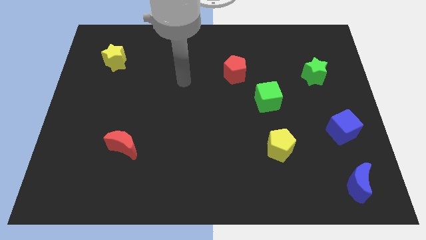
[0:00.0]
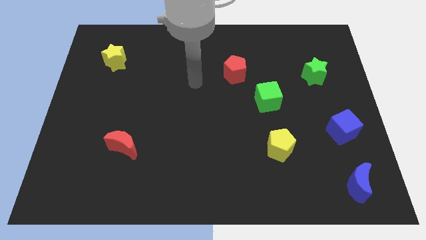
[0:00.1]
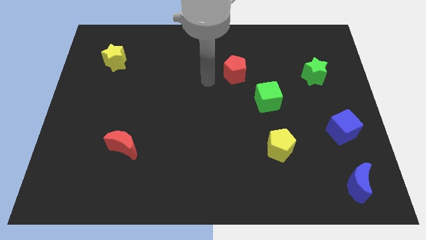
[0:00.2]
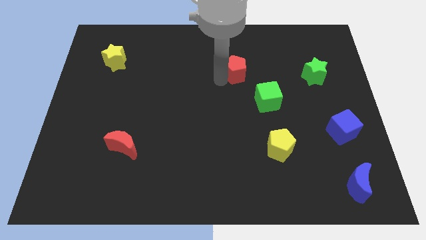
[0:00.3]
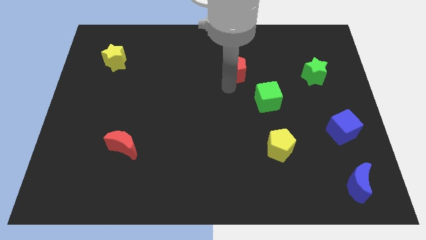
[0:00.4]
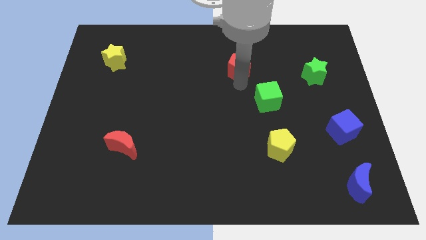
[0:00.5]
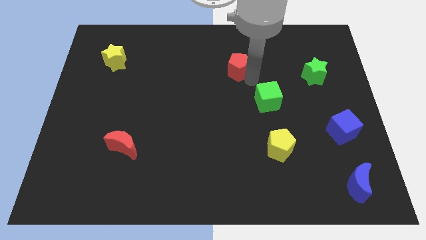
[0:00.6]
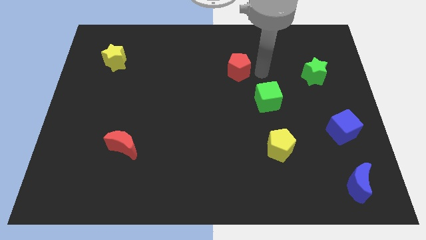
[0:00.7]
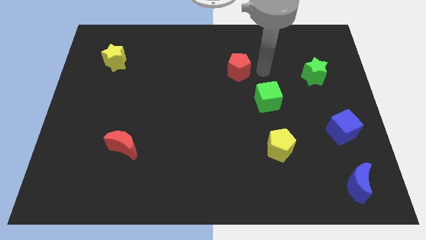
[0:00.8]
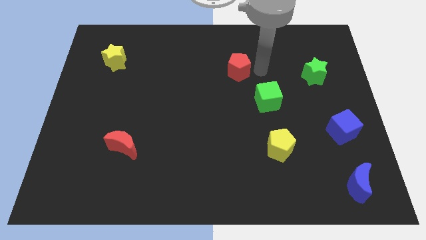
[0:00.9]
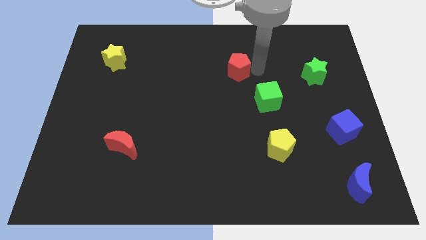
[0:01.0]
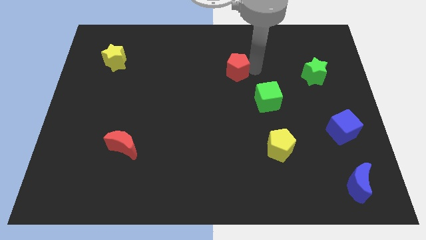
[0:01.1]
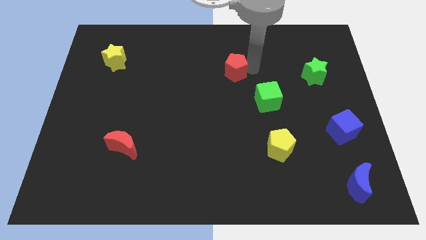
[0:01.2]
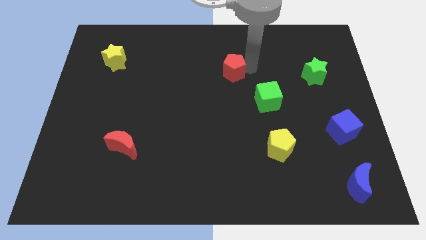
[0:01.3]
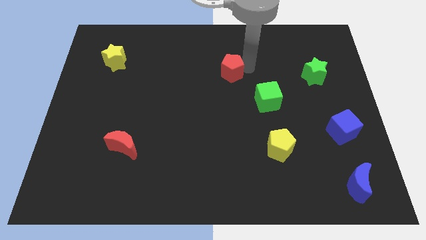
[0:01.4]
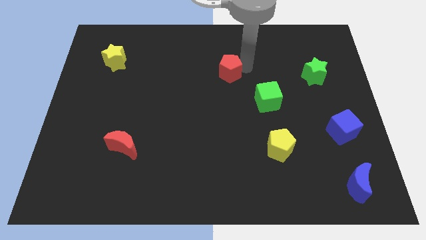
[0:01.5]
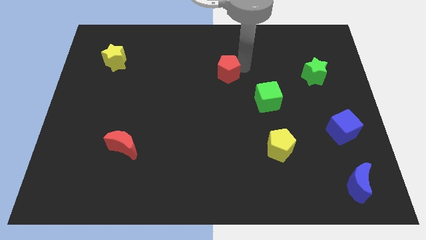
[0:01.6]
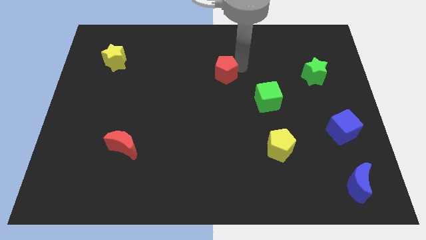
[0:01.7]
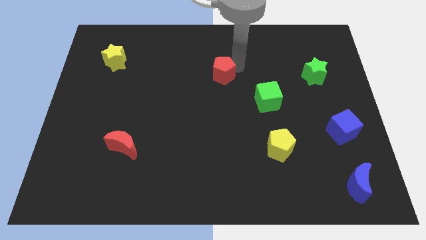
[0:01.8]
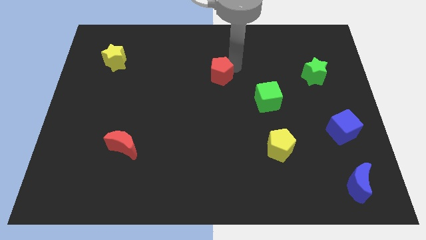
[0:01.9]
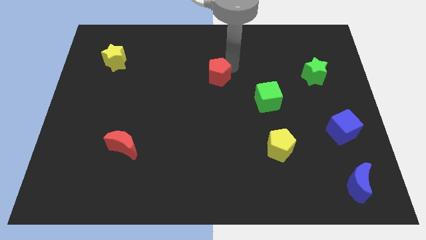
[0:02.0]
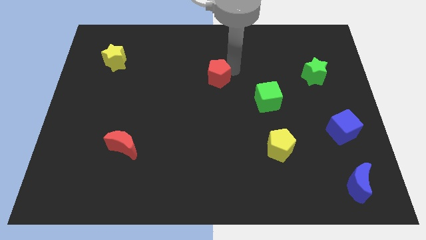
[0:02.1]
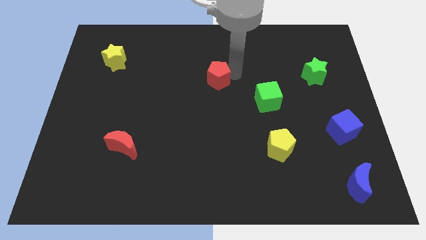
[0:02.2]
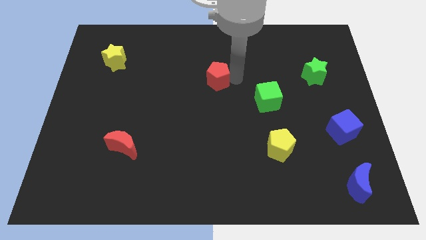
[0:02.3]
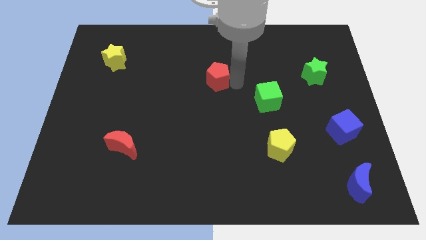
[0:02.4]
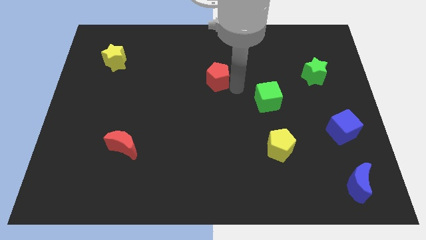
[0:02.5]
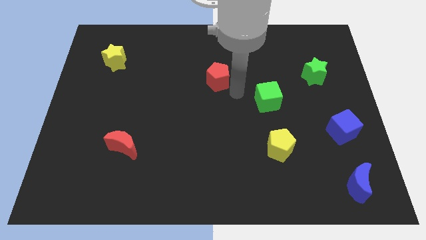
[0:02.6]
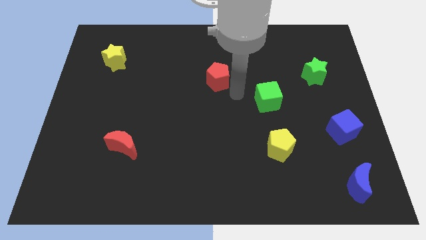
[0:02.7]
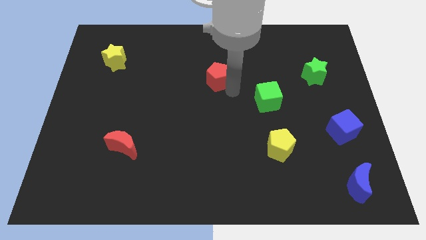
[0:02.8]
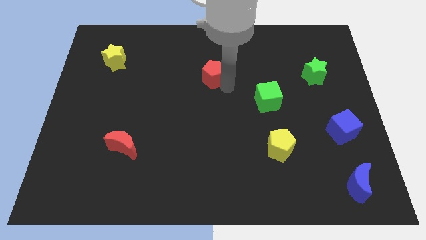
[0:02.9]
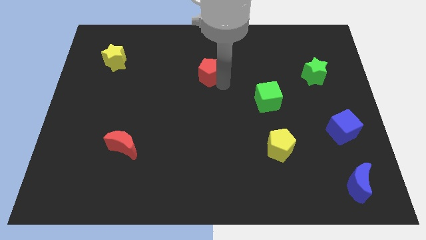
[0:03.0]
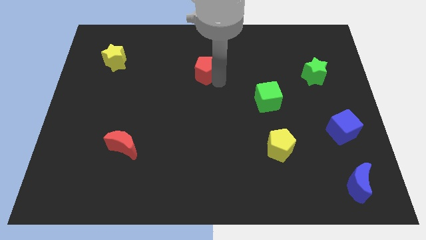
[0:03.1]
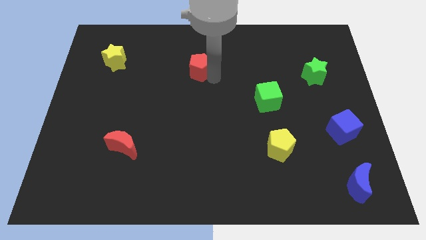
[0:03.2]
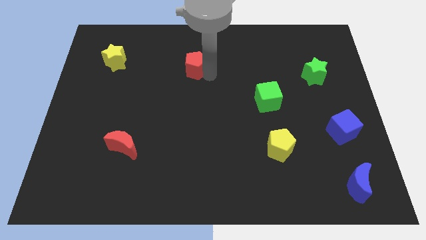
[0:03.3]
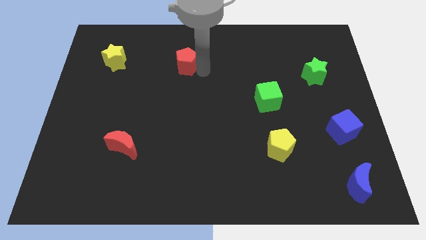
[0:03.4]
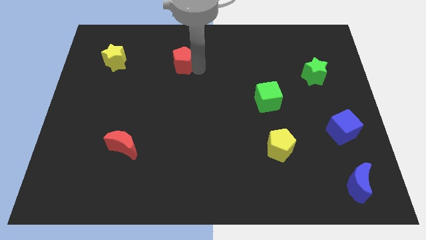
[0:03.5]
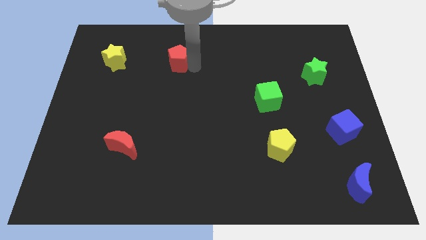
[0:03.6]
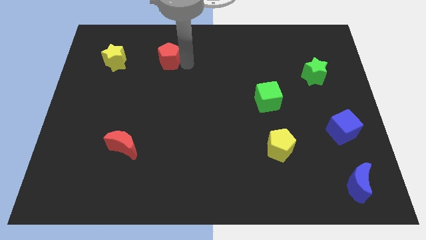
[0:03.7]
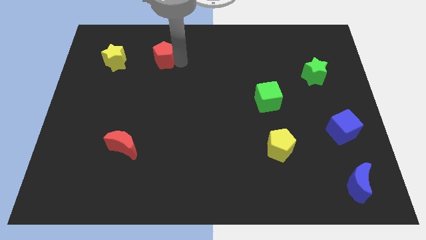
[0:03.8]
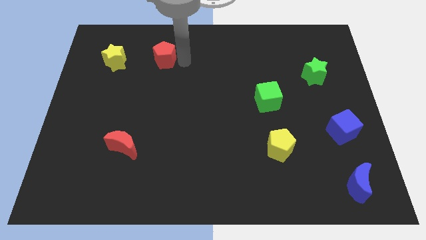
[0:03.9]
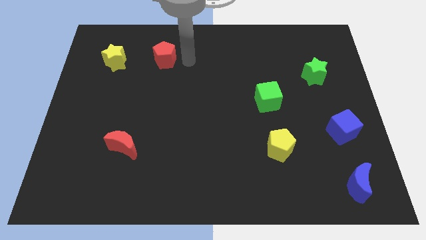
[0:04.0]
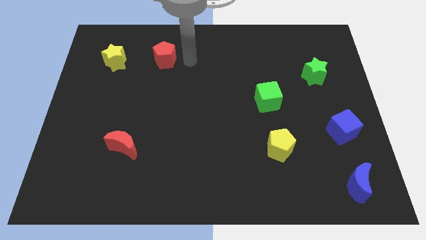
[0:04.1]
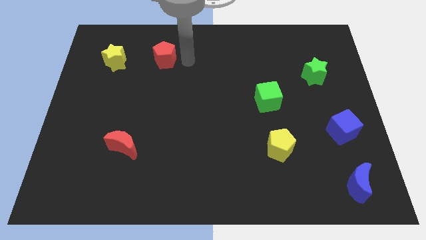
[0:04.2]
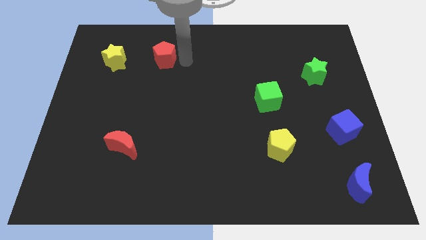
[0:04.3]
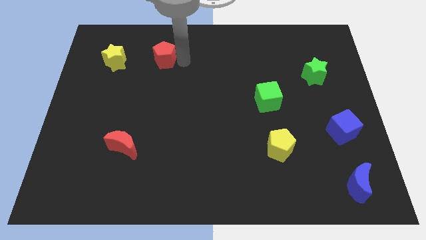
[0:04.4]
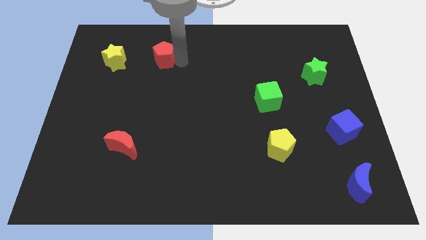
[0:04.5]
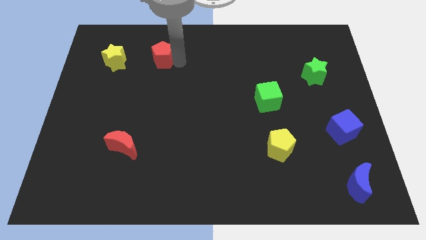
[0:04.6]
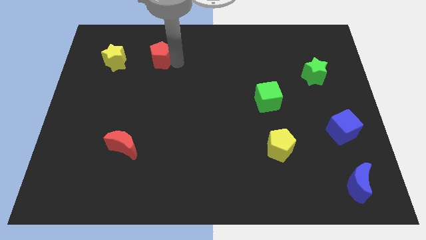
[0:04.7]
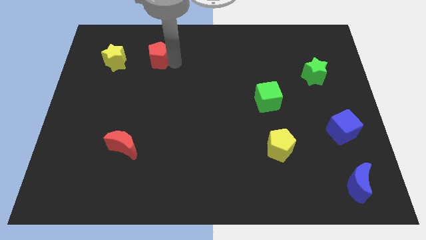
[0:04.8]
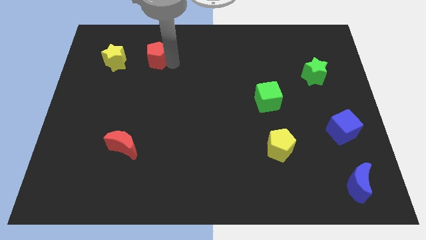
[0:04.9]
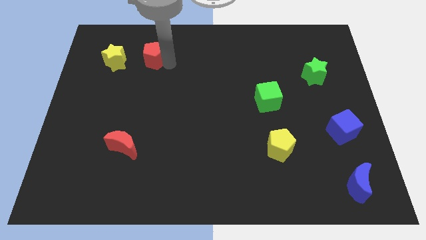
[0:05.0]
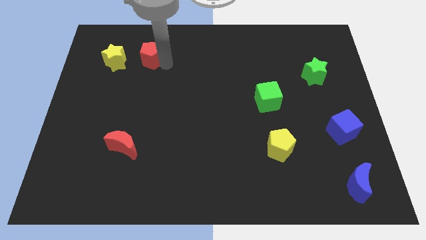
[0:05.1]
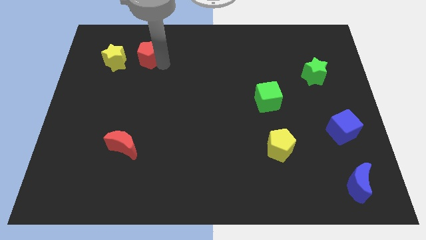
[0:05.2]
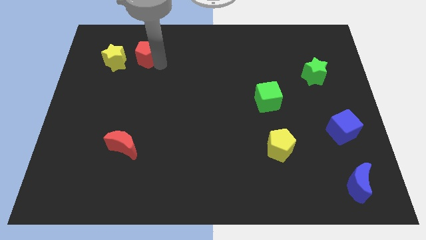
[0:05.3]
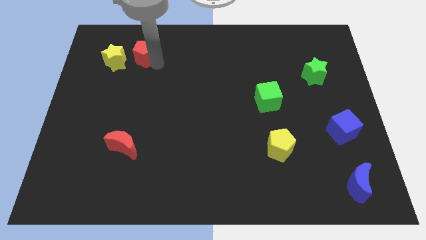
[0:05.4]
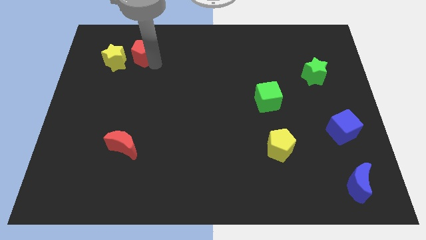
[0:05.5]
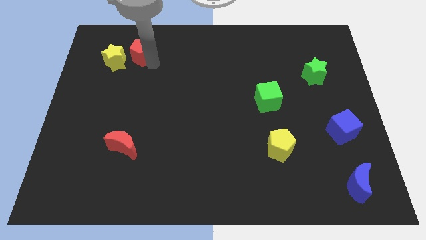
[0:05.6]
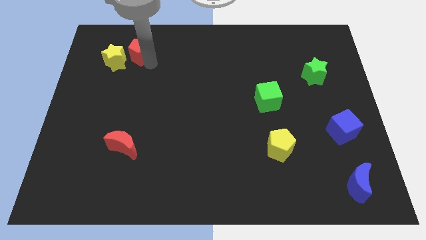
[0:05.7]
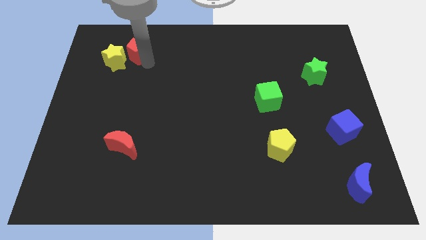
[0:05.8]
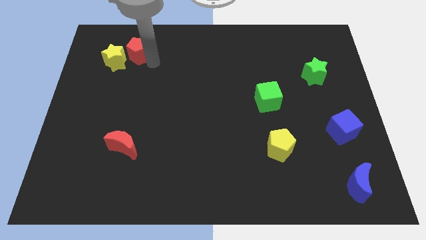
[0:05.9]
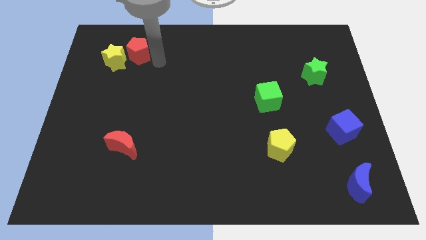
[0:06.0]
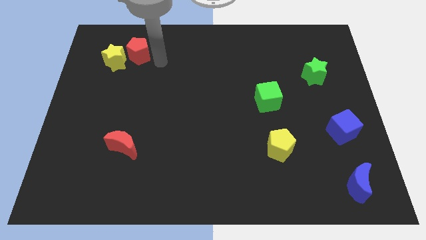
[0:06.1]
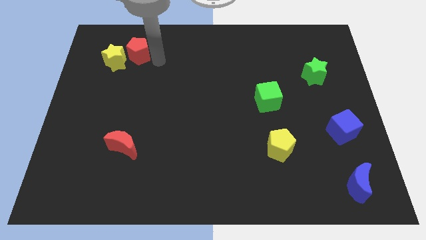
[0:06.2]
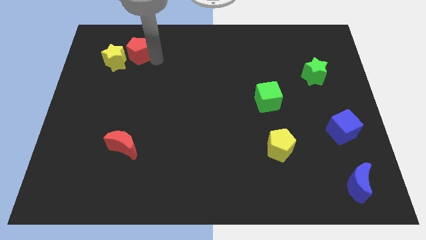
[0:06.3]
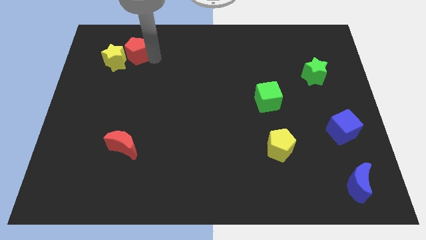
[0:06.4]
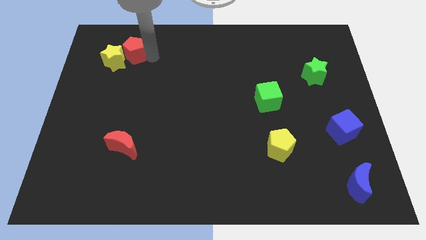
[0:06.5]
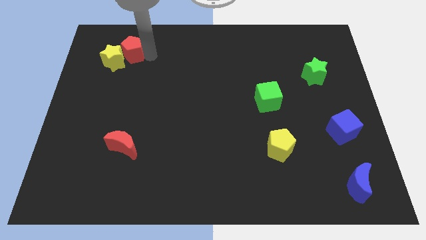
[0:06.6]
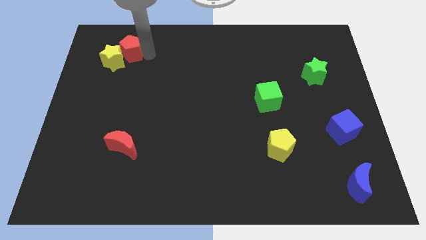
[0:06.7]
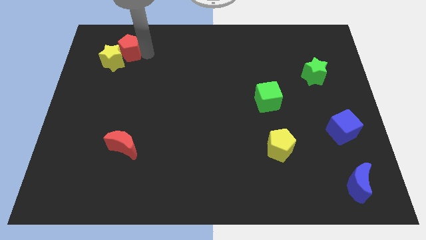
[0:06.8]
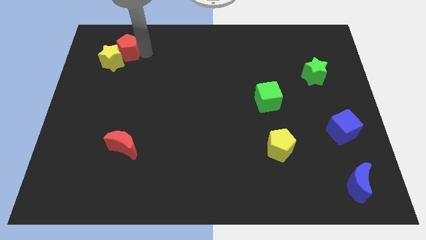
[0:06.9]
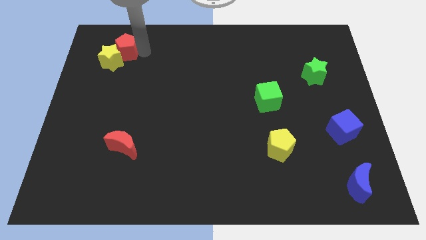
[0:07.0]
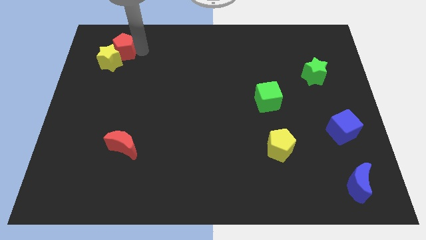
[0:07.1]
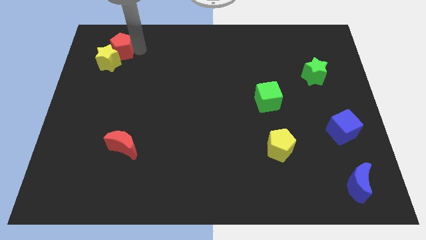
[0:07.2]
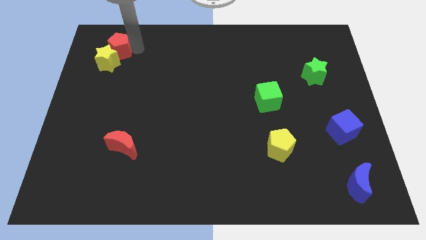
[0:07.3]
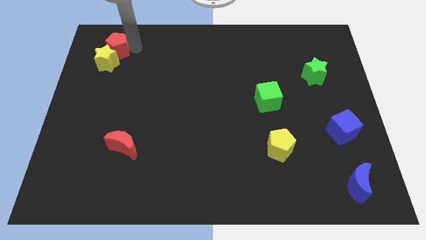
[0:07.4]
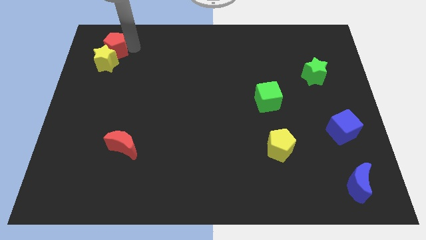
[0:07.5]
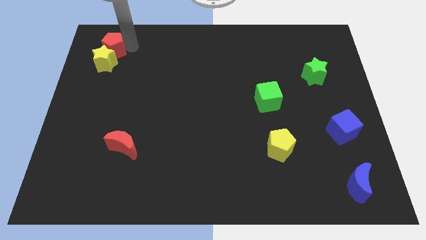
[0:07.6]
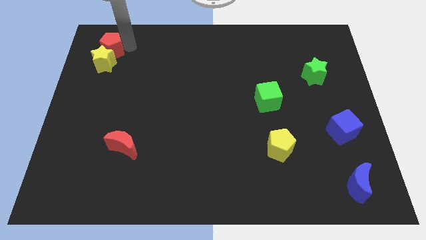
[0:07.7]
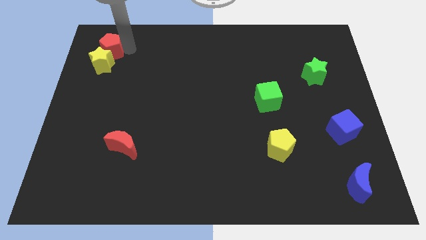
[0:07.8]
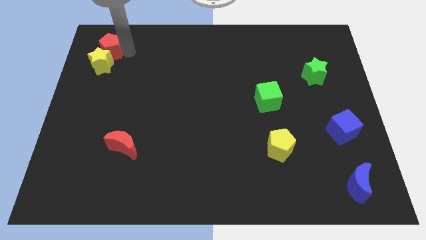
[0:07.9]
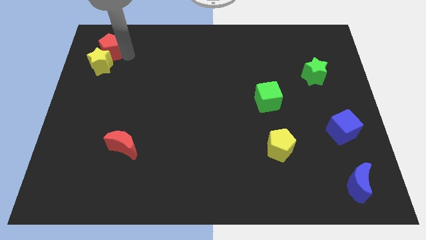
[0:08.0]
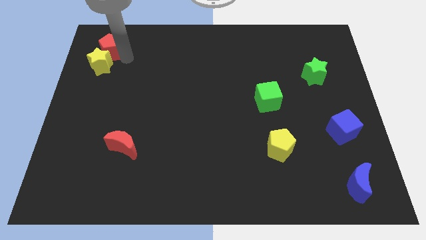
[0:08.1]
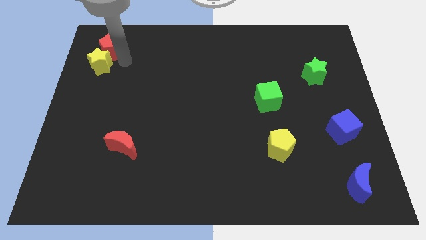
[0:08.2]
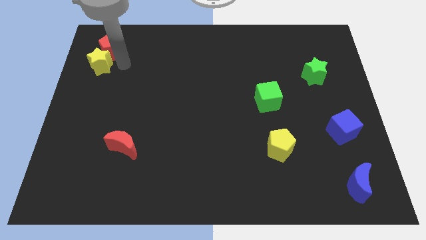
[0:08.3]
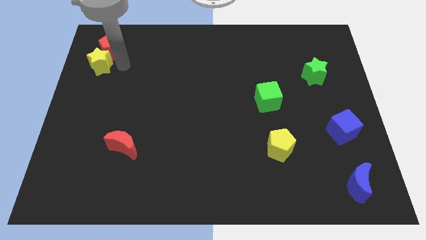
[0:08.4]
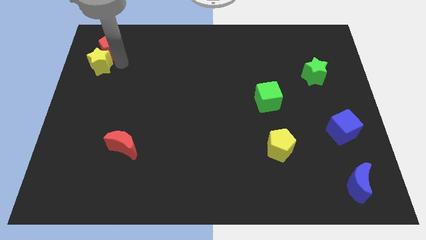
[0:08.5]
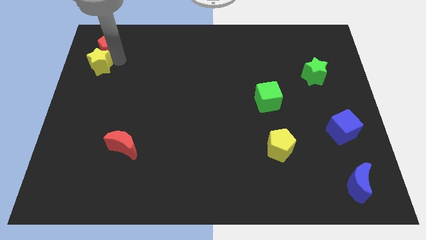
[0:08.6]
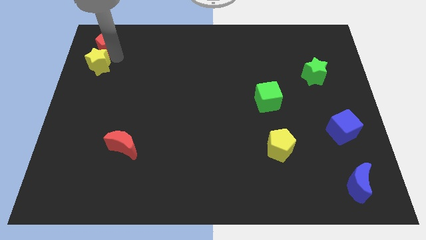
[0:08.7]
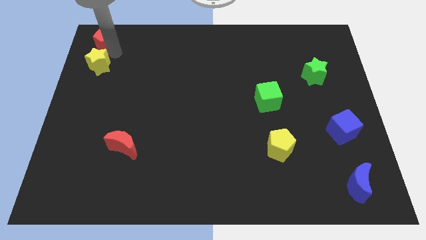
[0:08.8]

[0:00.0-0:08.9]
move the red pentagon to the top left
